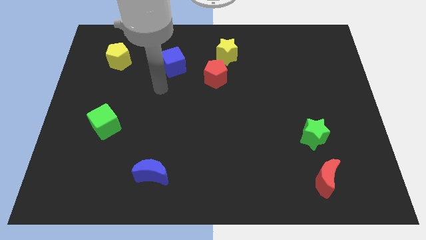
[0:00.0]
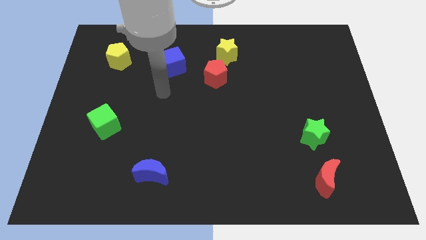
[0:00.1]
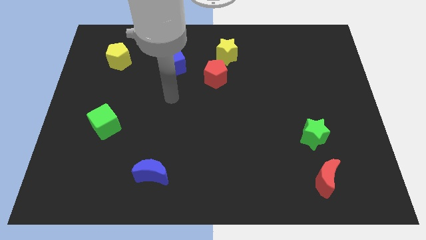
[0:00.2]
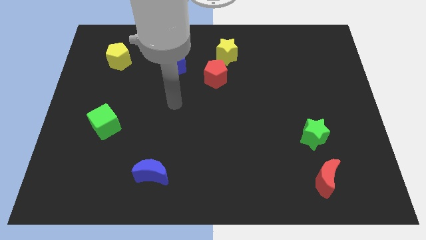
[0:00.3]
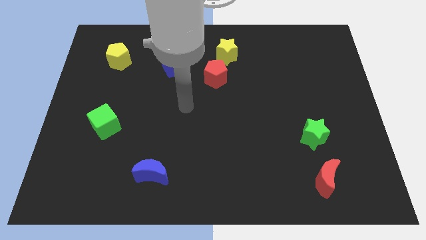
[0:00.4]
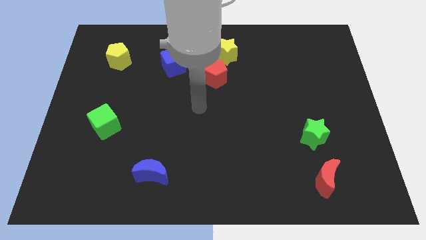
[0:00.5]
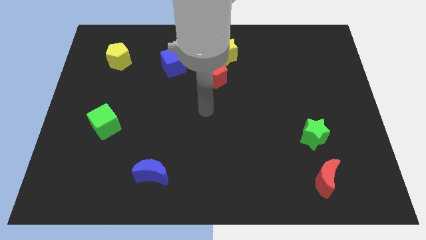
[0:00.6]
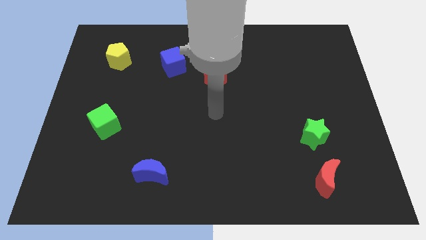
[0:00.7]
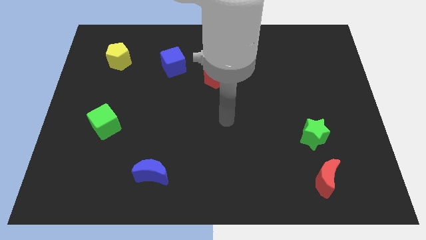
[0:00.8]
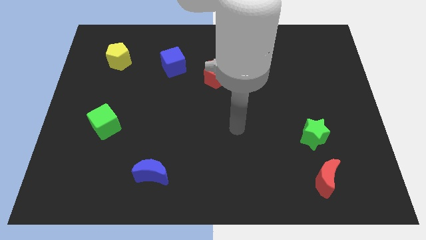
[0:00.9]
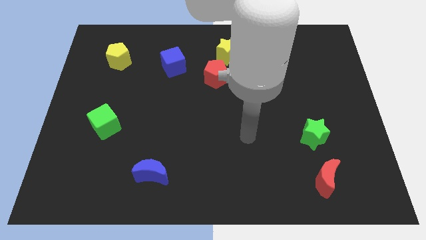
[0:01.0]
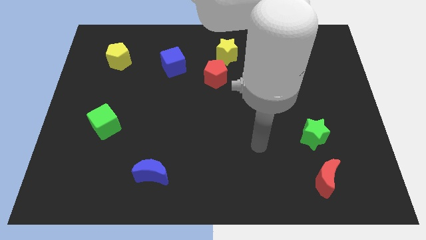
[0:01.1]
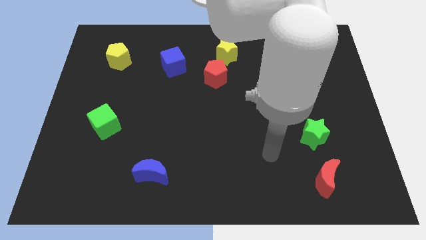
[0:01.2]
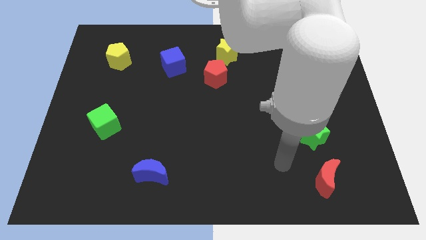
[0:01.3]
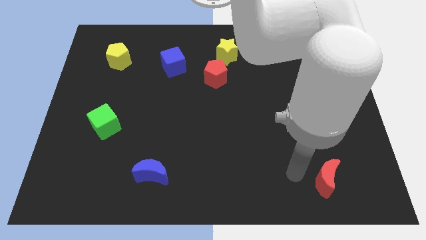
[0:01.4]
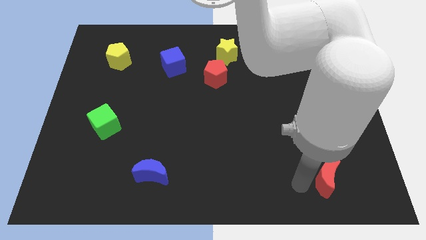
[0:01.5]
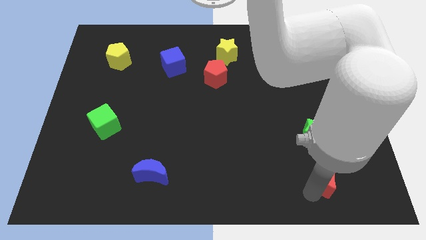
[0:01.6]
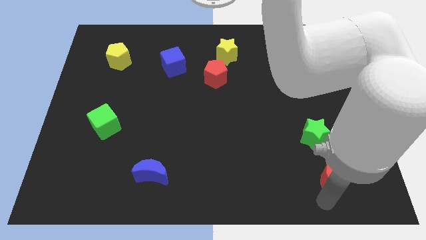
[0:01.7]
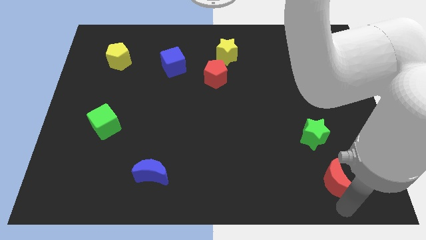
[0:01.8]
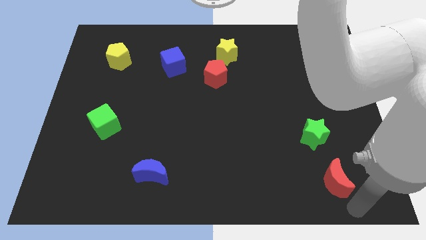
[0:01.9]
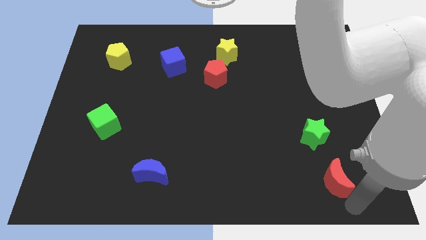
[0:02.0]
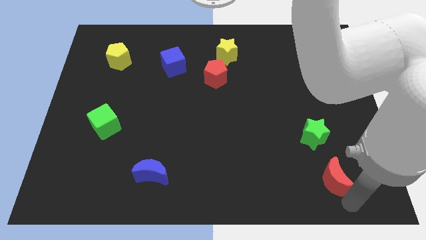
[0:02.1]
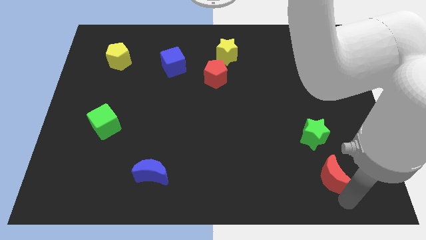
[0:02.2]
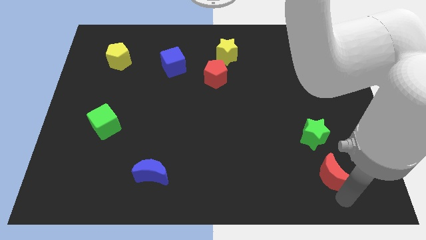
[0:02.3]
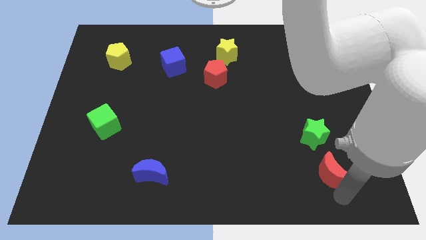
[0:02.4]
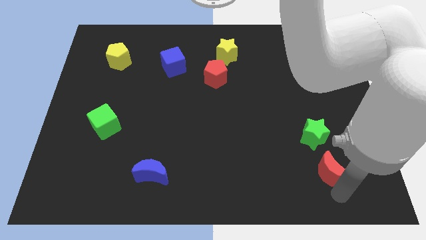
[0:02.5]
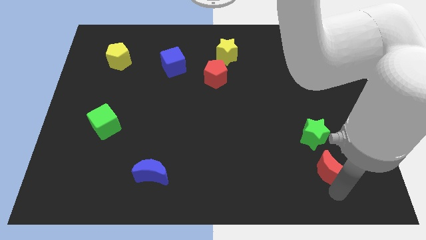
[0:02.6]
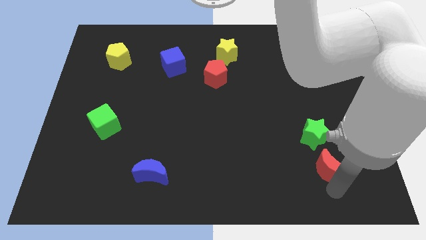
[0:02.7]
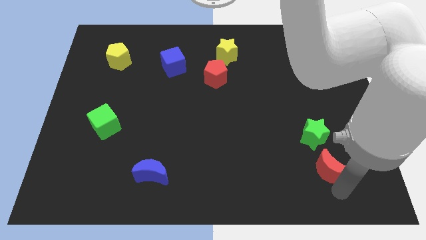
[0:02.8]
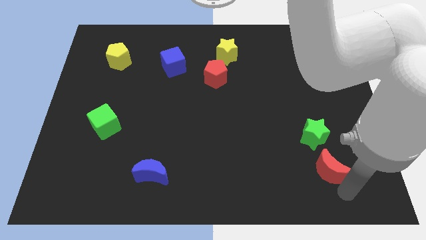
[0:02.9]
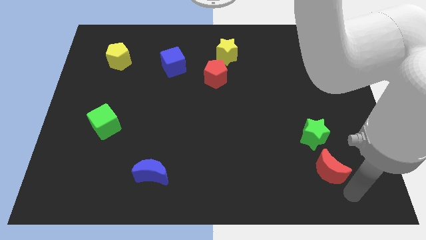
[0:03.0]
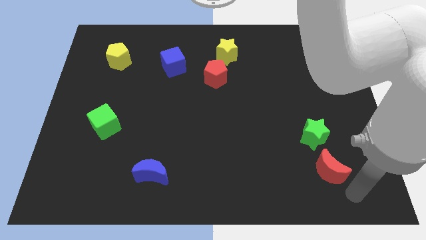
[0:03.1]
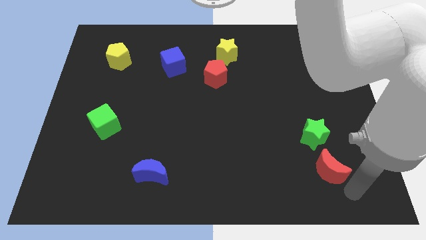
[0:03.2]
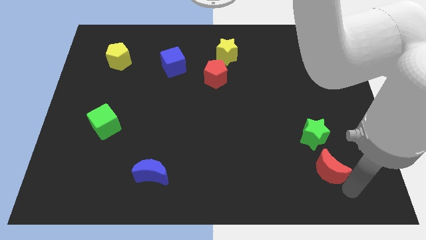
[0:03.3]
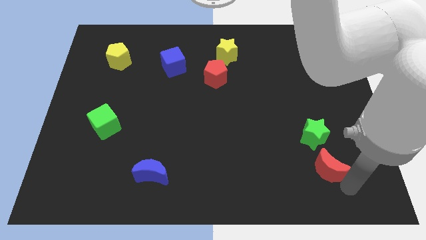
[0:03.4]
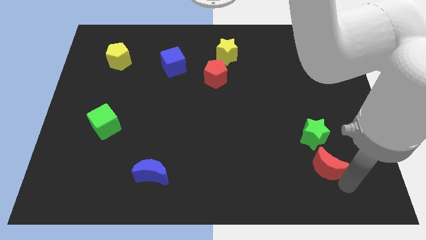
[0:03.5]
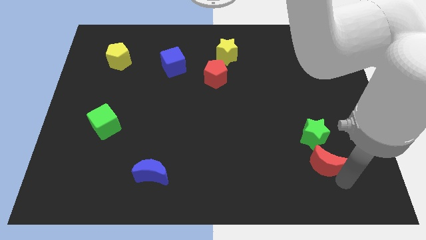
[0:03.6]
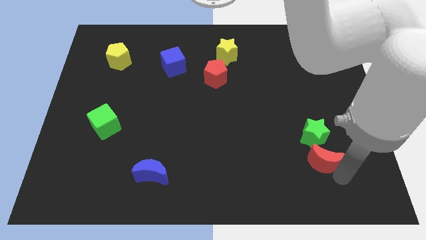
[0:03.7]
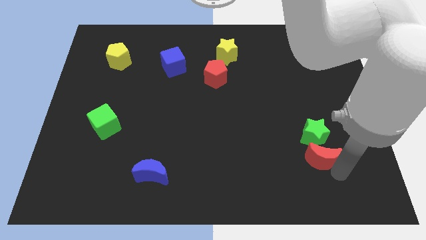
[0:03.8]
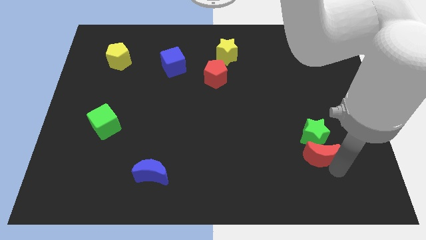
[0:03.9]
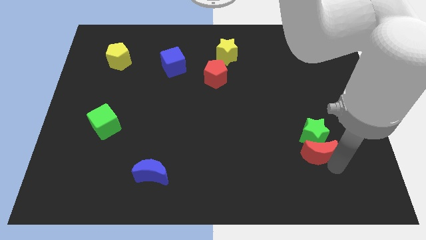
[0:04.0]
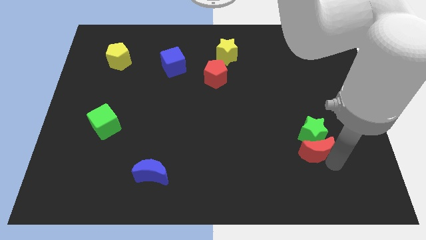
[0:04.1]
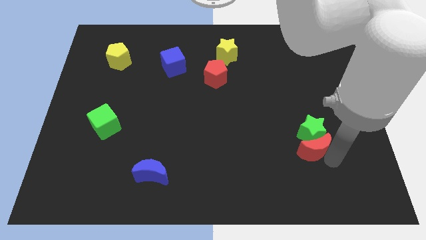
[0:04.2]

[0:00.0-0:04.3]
slightly push the red moon up

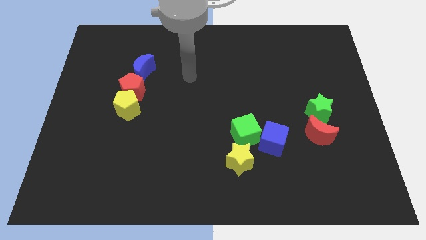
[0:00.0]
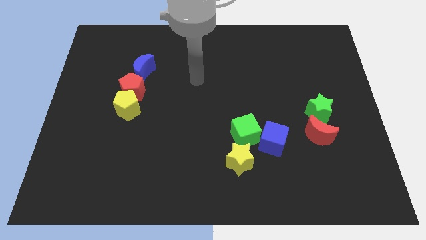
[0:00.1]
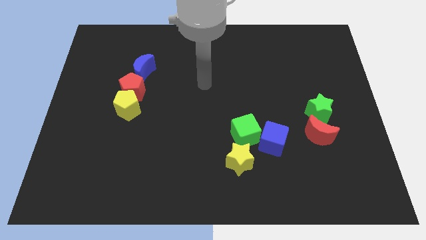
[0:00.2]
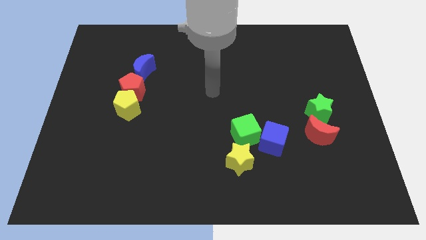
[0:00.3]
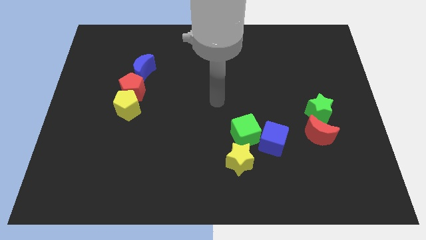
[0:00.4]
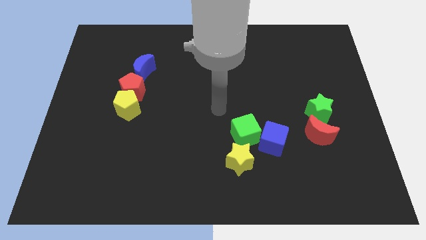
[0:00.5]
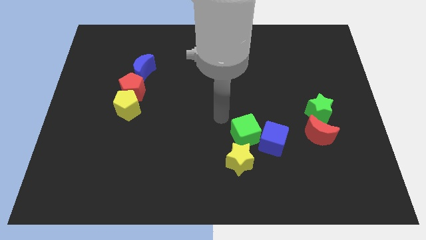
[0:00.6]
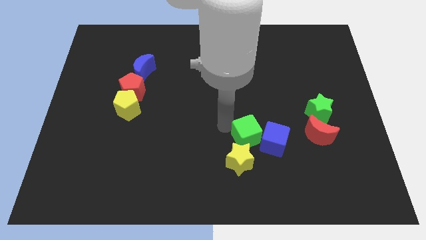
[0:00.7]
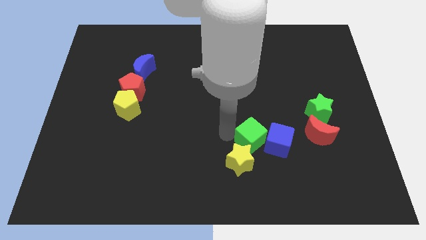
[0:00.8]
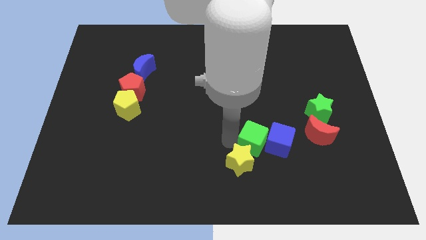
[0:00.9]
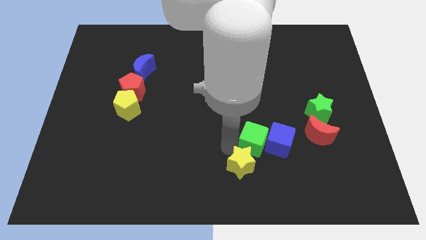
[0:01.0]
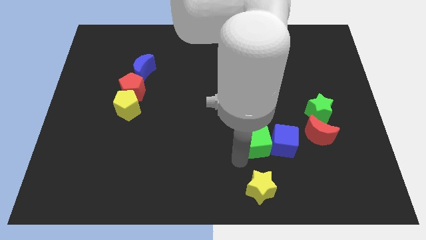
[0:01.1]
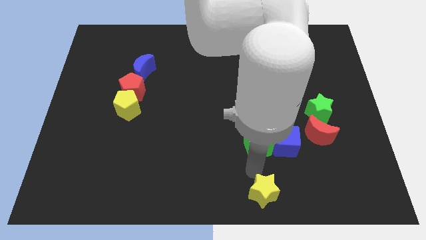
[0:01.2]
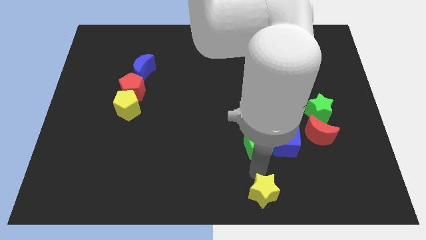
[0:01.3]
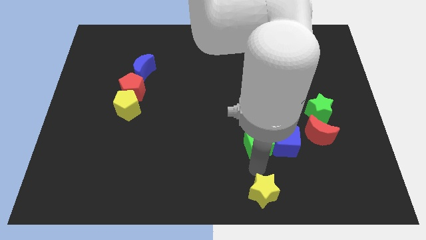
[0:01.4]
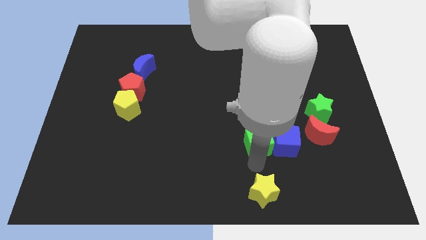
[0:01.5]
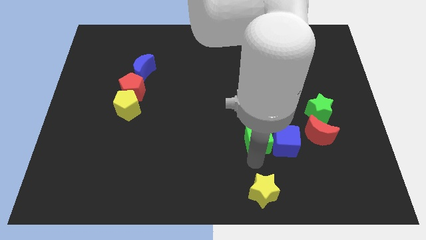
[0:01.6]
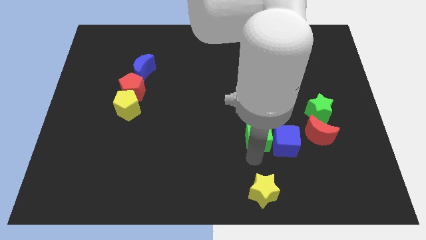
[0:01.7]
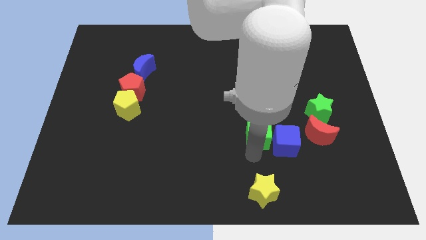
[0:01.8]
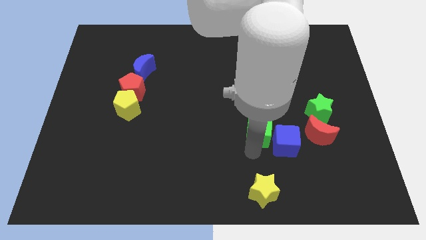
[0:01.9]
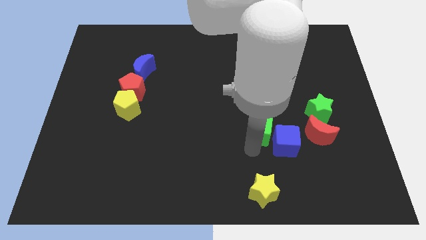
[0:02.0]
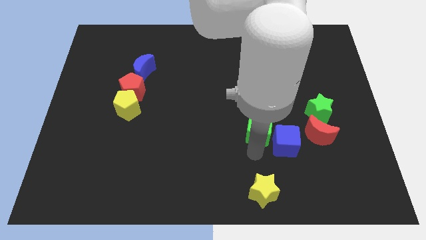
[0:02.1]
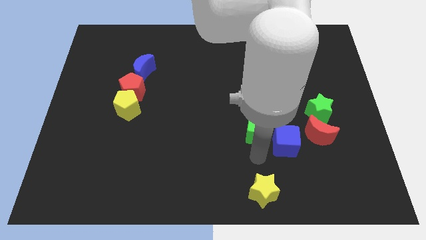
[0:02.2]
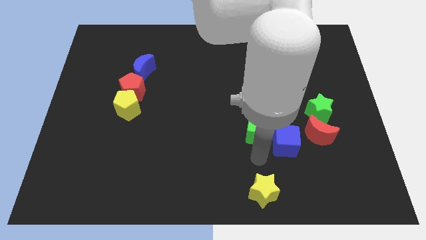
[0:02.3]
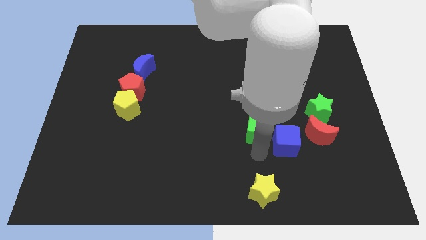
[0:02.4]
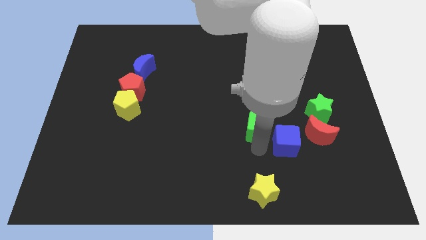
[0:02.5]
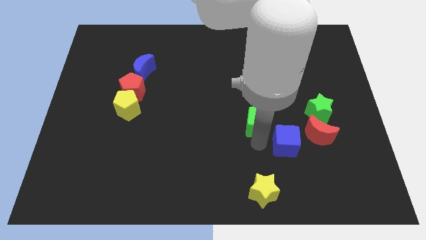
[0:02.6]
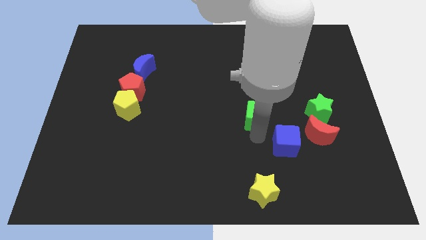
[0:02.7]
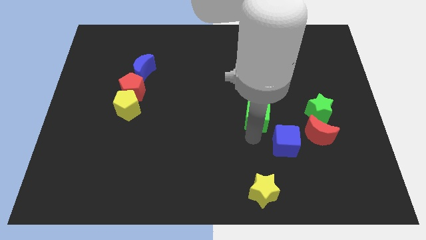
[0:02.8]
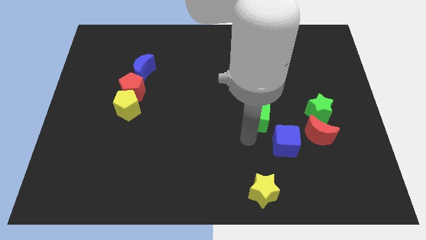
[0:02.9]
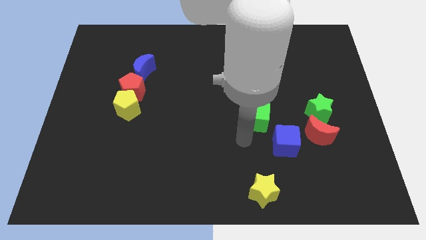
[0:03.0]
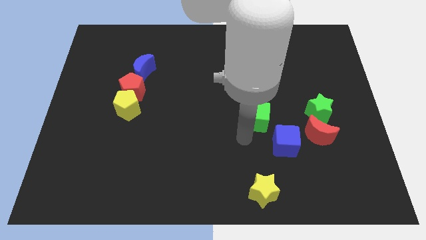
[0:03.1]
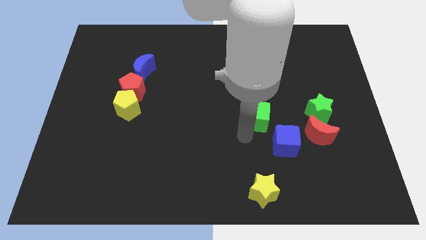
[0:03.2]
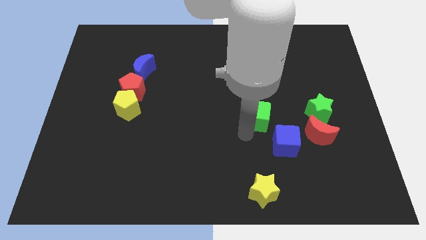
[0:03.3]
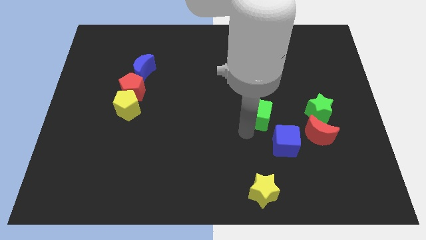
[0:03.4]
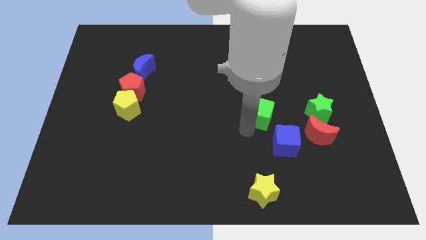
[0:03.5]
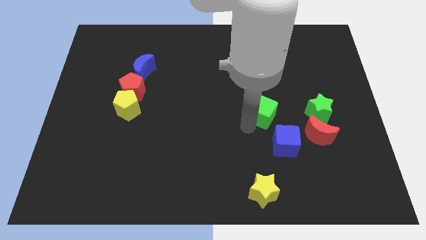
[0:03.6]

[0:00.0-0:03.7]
slide the green cube up and right a little
